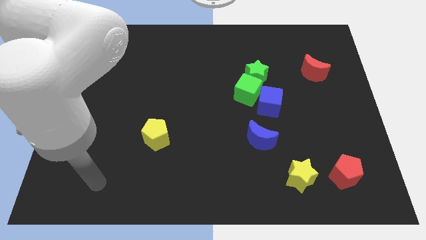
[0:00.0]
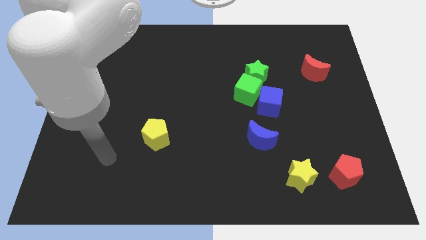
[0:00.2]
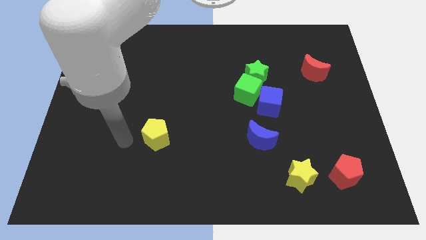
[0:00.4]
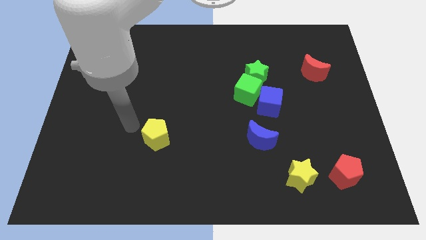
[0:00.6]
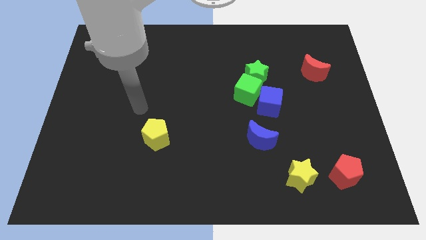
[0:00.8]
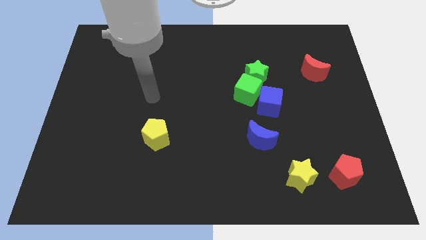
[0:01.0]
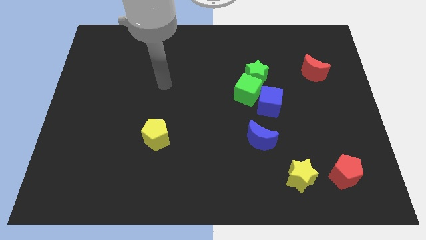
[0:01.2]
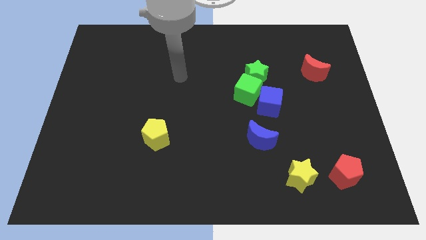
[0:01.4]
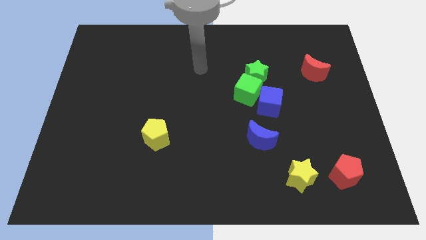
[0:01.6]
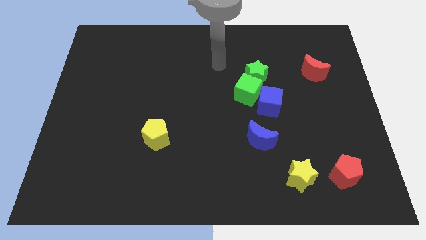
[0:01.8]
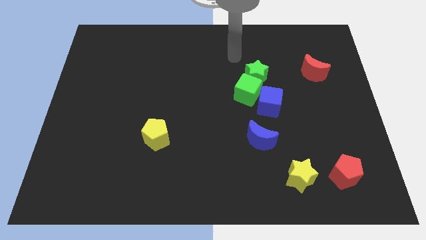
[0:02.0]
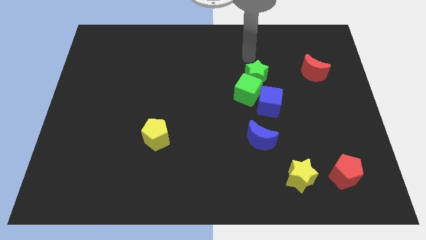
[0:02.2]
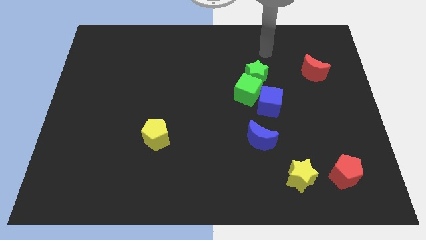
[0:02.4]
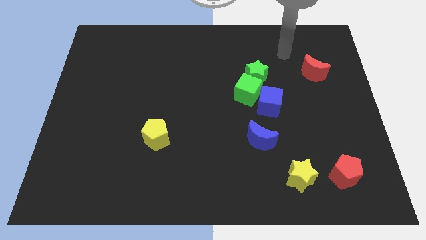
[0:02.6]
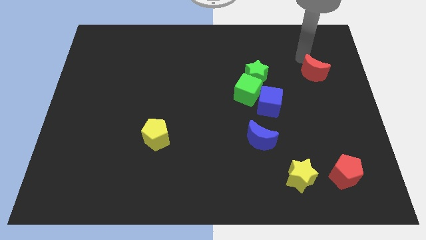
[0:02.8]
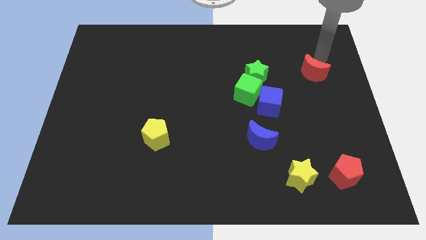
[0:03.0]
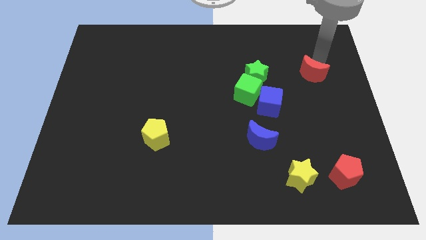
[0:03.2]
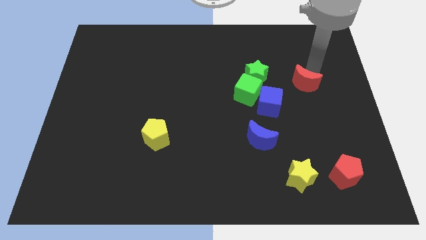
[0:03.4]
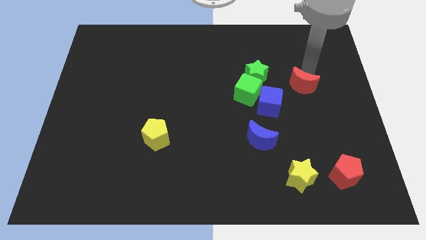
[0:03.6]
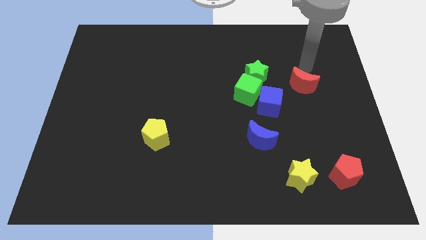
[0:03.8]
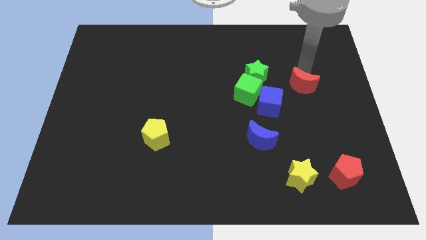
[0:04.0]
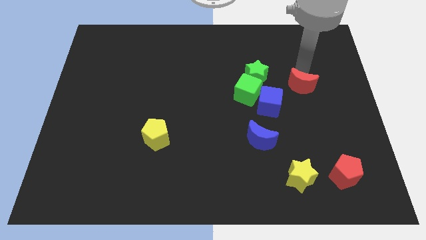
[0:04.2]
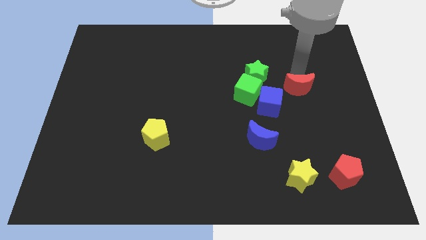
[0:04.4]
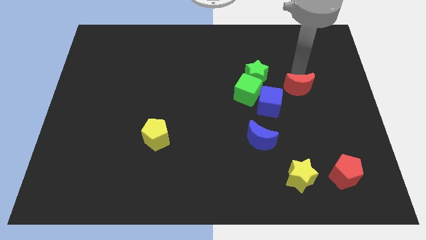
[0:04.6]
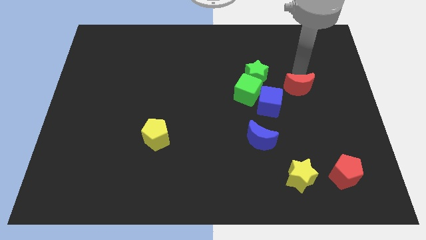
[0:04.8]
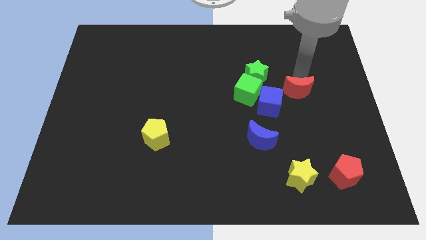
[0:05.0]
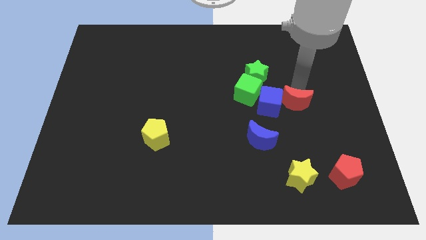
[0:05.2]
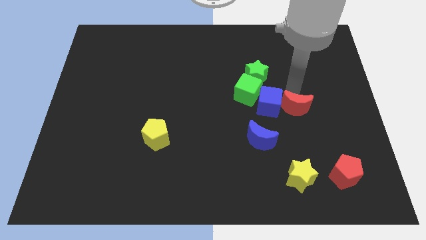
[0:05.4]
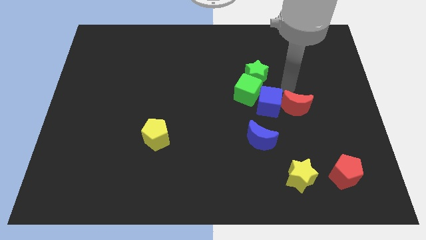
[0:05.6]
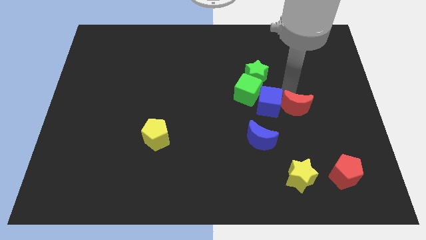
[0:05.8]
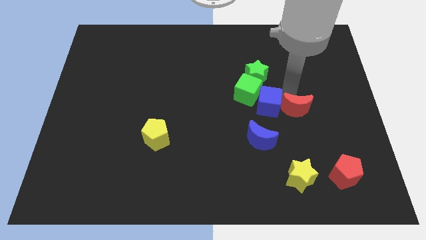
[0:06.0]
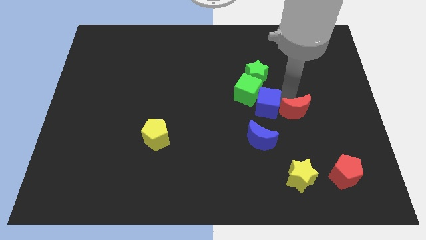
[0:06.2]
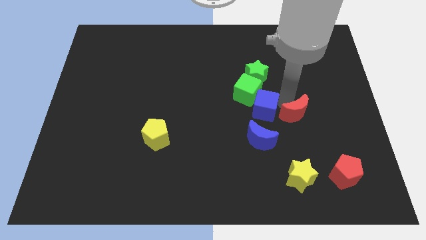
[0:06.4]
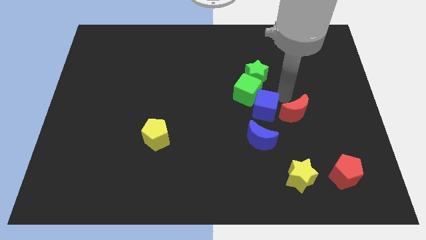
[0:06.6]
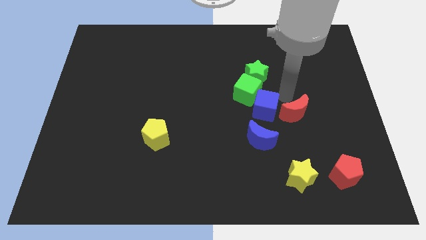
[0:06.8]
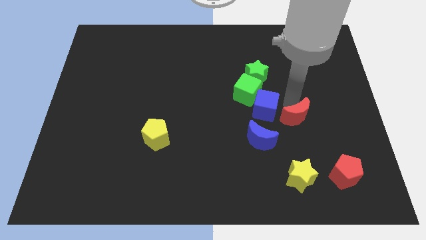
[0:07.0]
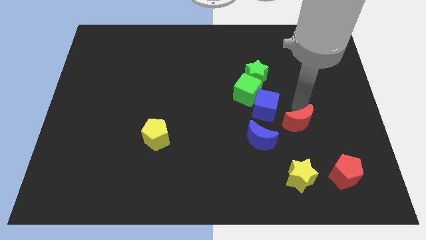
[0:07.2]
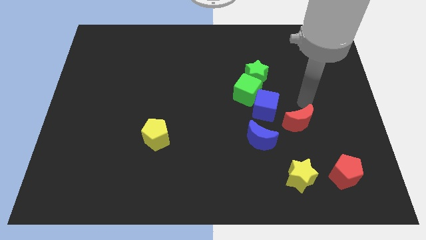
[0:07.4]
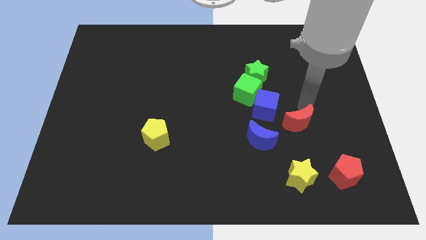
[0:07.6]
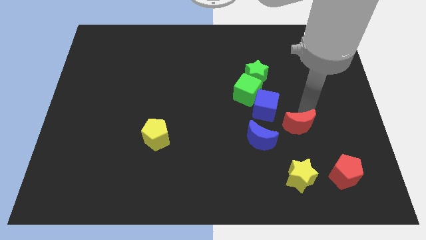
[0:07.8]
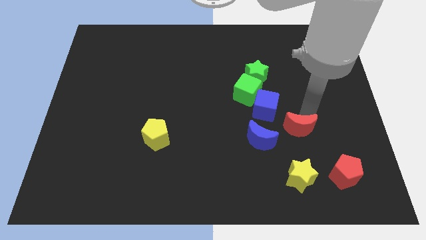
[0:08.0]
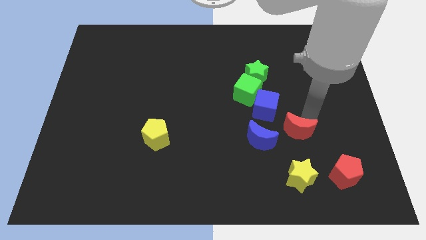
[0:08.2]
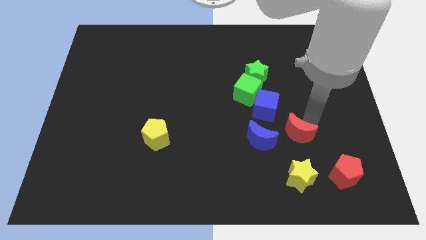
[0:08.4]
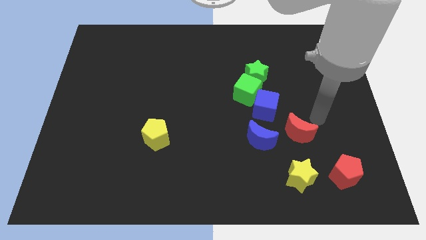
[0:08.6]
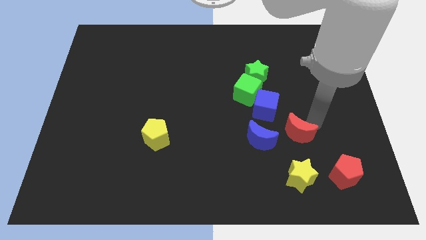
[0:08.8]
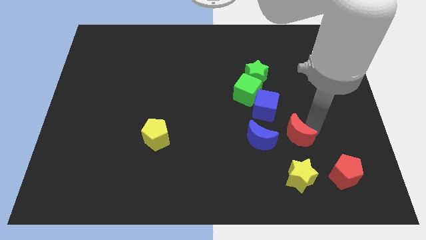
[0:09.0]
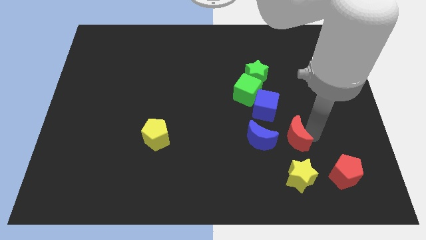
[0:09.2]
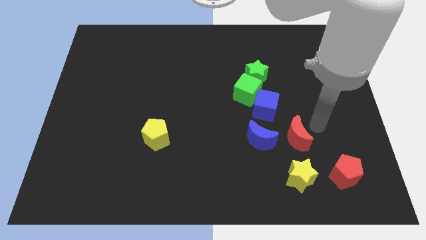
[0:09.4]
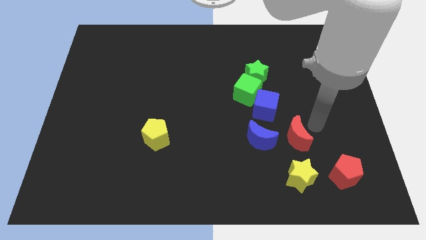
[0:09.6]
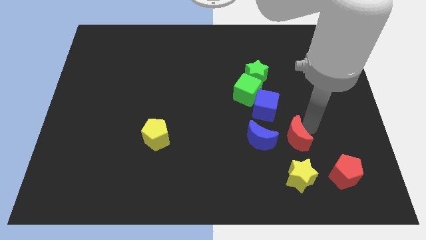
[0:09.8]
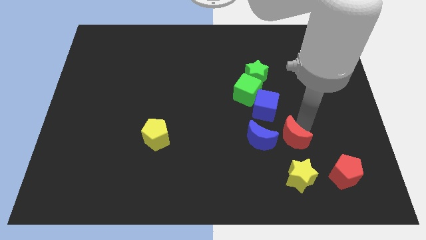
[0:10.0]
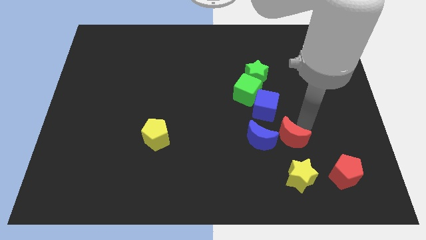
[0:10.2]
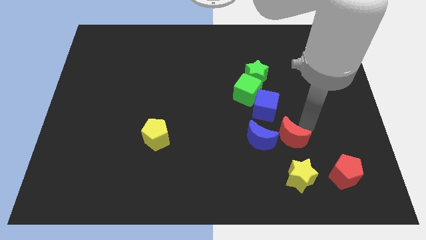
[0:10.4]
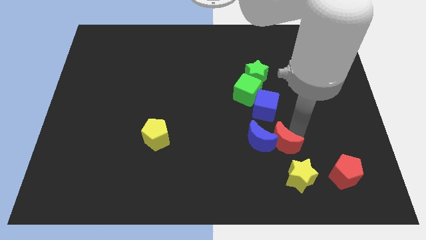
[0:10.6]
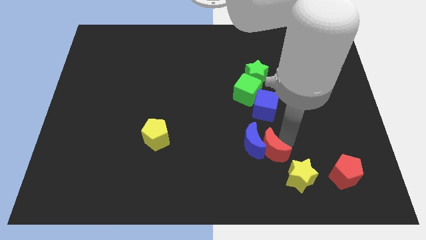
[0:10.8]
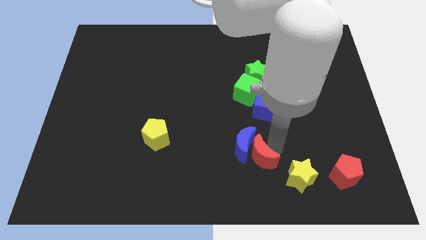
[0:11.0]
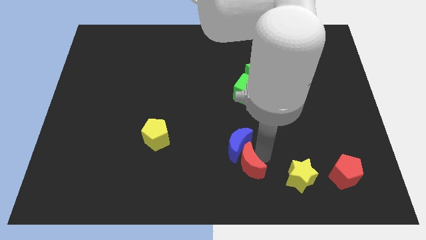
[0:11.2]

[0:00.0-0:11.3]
move the red moon to the bottom side

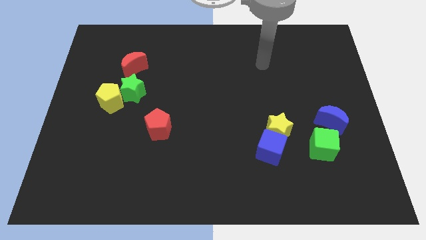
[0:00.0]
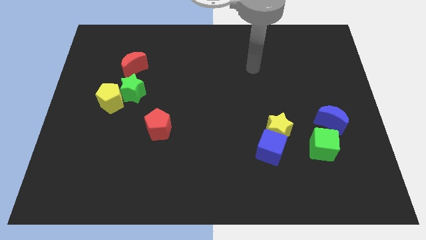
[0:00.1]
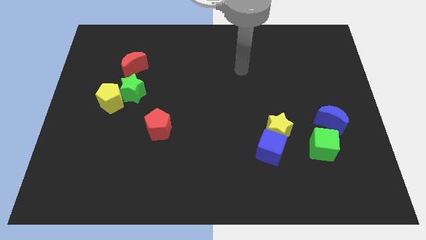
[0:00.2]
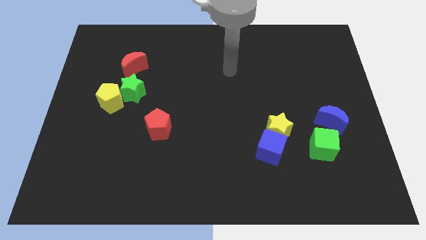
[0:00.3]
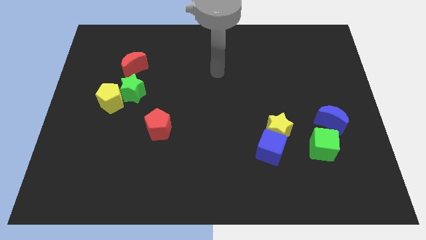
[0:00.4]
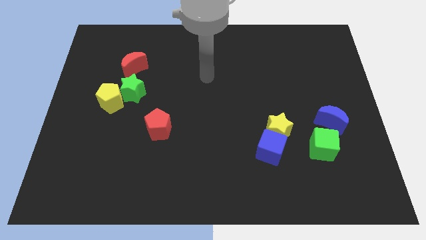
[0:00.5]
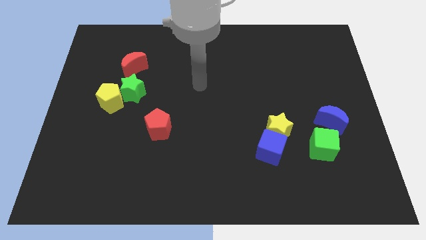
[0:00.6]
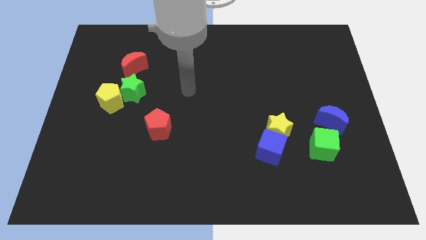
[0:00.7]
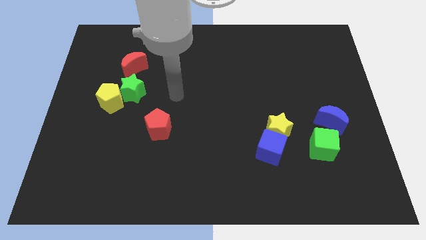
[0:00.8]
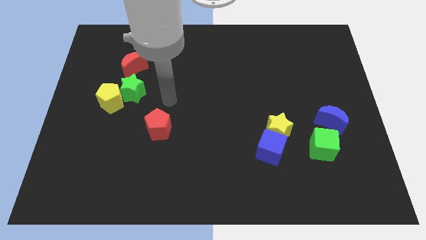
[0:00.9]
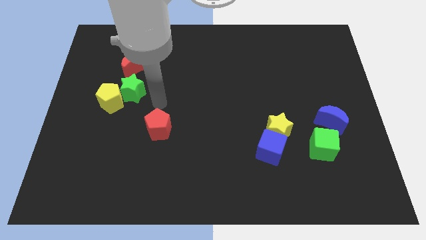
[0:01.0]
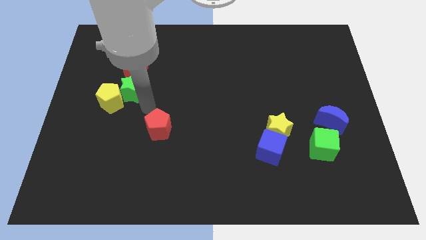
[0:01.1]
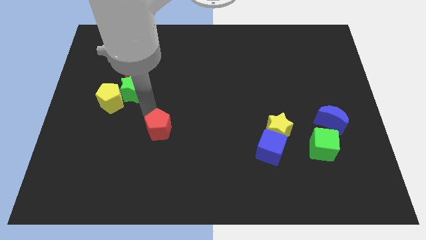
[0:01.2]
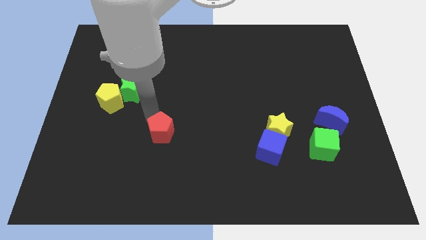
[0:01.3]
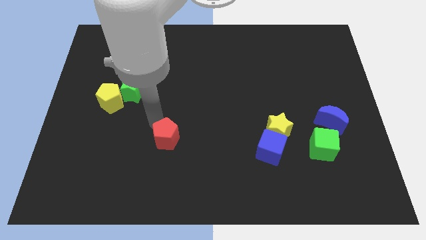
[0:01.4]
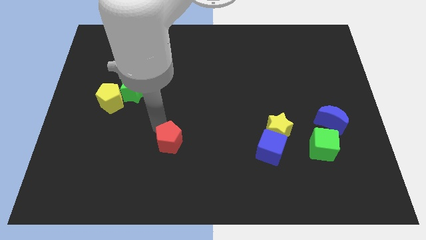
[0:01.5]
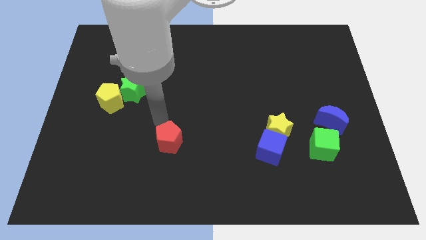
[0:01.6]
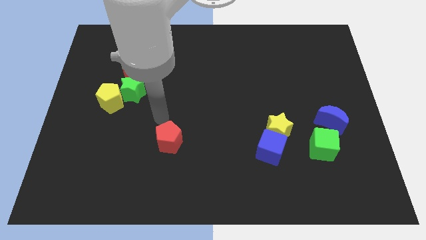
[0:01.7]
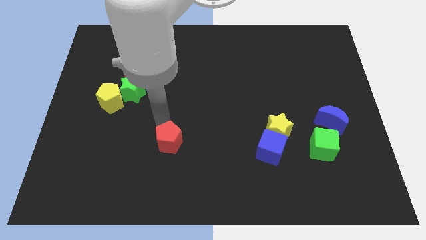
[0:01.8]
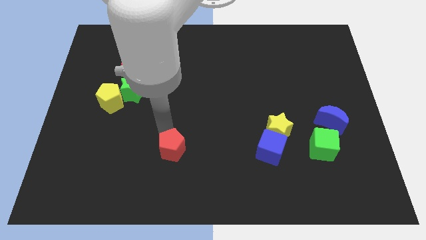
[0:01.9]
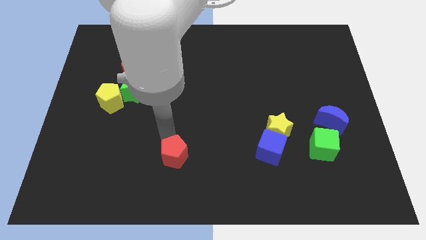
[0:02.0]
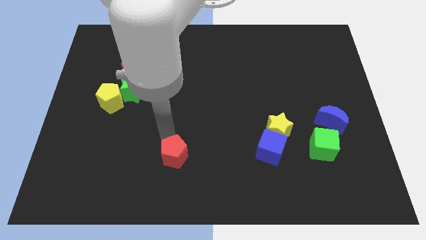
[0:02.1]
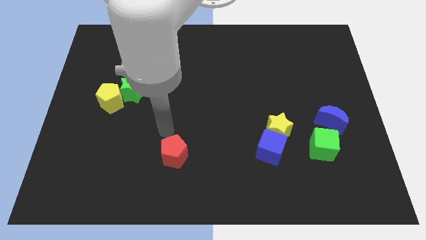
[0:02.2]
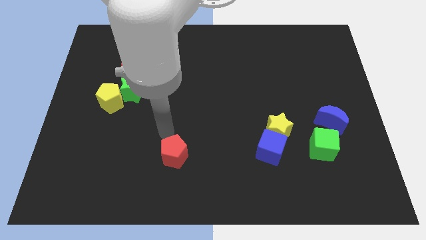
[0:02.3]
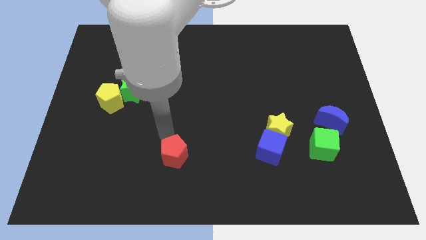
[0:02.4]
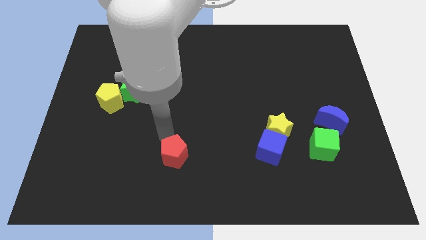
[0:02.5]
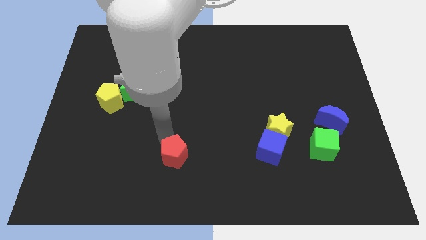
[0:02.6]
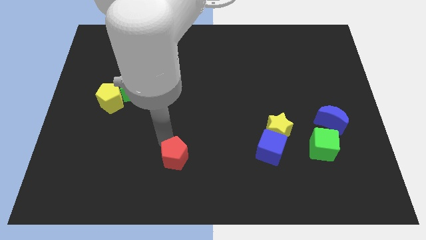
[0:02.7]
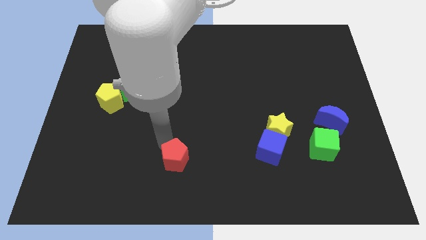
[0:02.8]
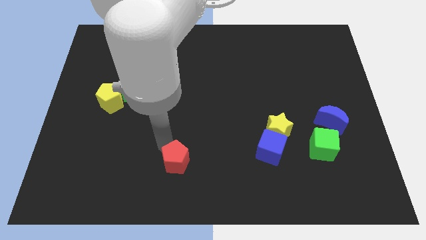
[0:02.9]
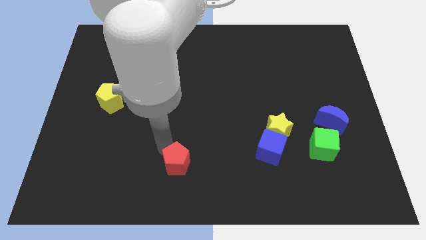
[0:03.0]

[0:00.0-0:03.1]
move the red pentagon to the bottom
